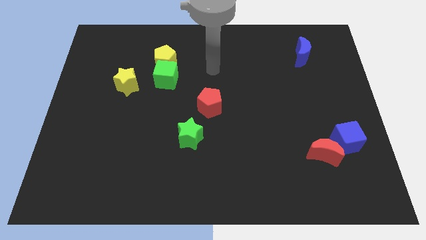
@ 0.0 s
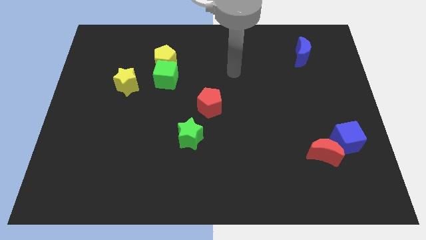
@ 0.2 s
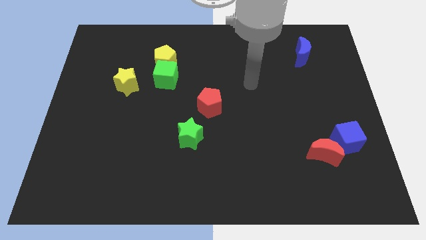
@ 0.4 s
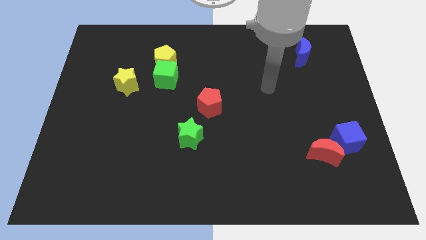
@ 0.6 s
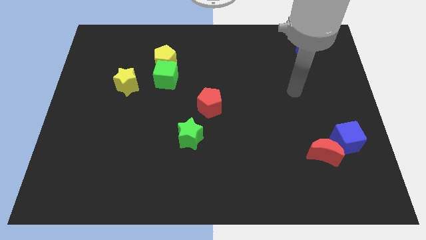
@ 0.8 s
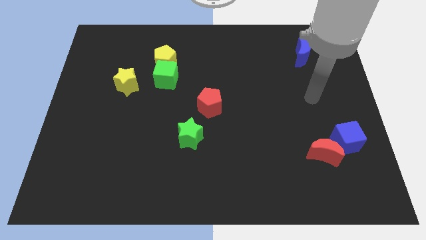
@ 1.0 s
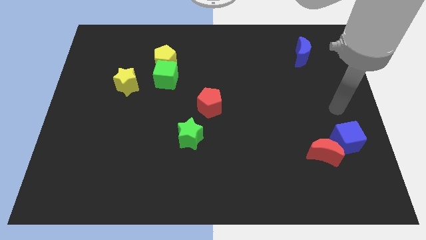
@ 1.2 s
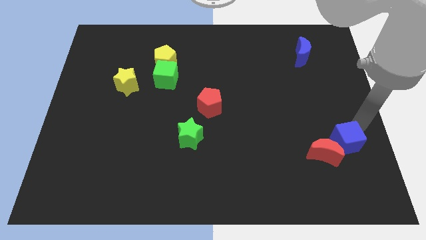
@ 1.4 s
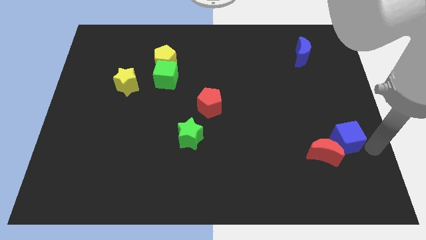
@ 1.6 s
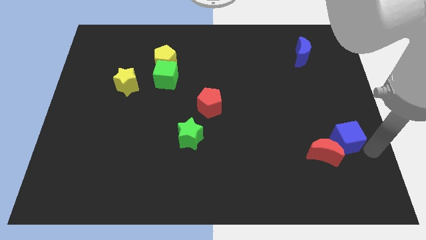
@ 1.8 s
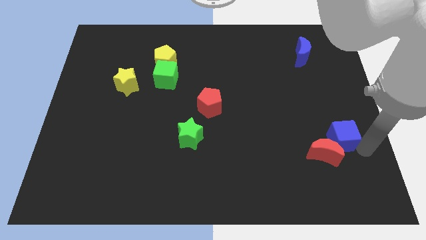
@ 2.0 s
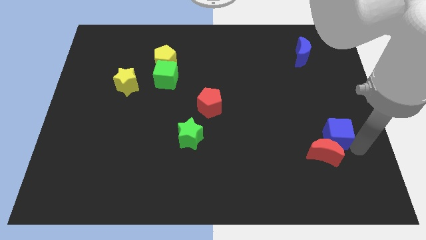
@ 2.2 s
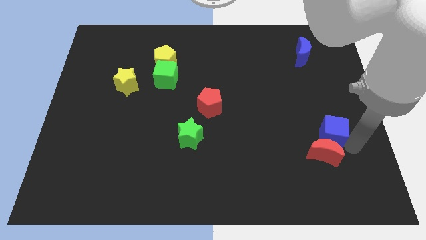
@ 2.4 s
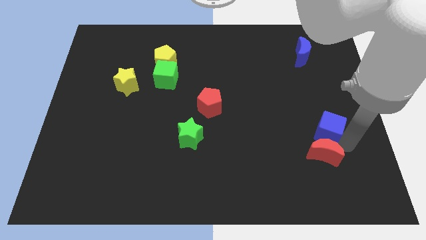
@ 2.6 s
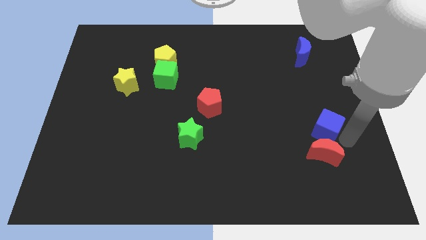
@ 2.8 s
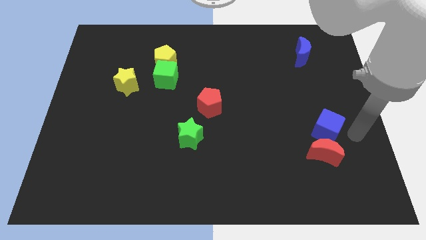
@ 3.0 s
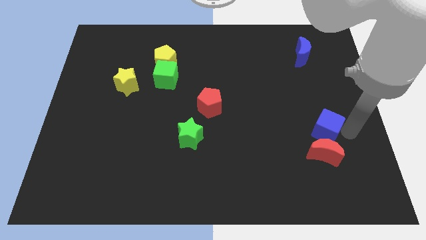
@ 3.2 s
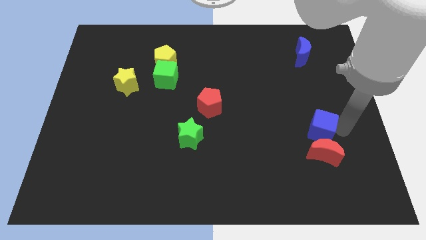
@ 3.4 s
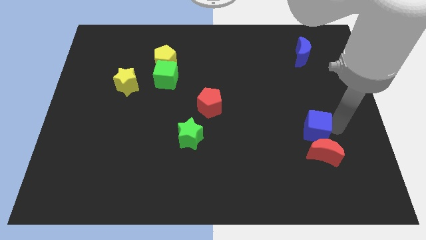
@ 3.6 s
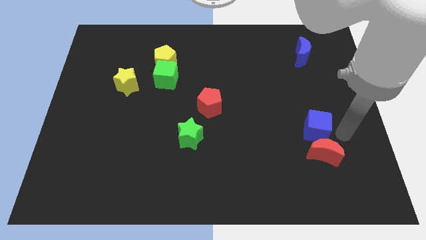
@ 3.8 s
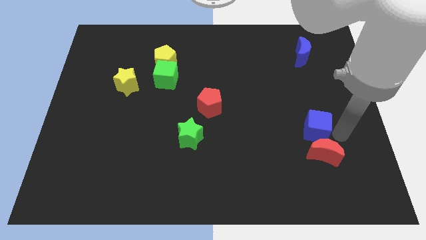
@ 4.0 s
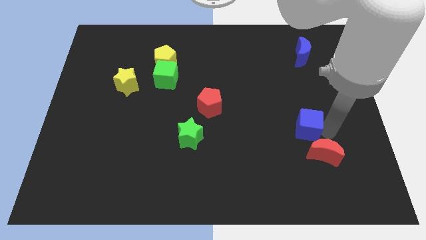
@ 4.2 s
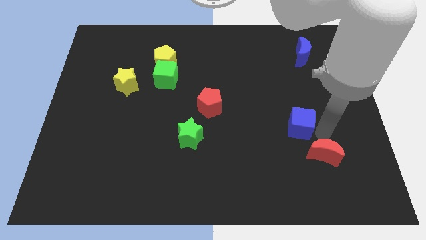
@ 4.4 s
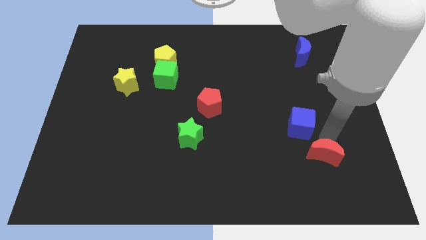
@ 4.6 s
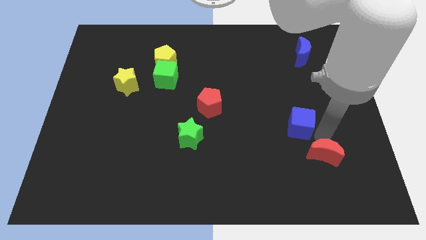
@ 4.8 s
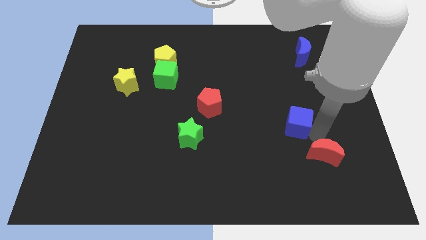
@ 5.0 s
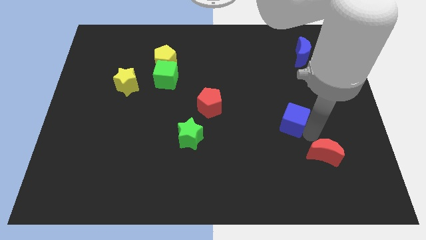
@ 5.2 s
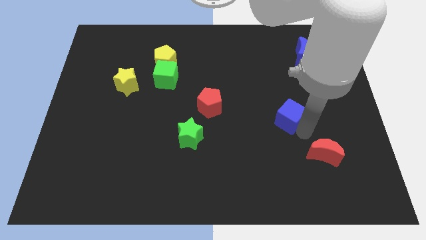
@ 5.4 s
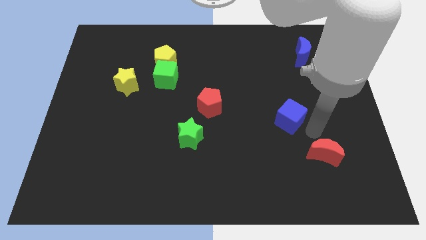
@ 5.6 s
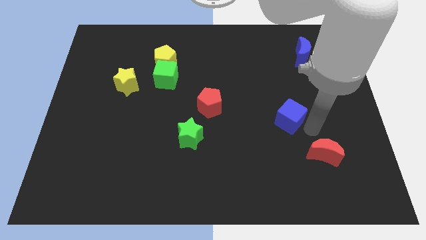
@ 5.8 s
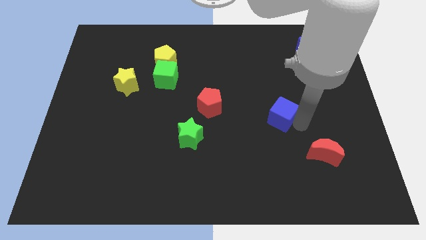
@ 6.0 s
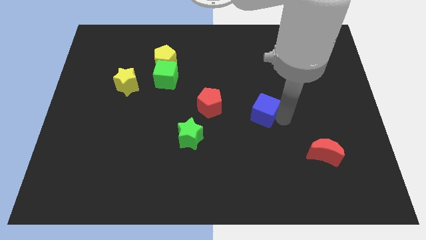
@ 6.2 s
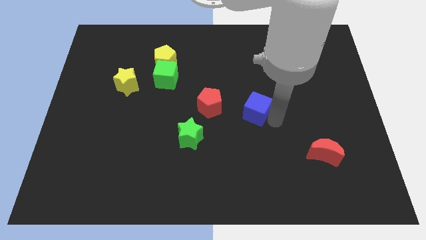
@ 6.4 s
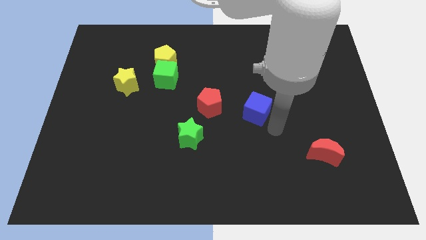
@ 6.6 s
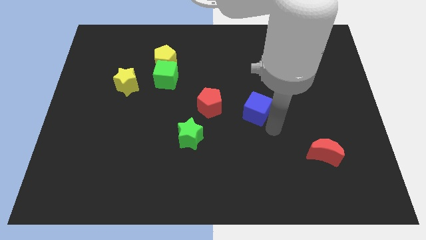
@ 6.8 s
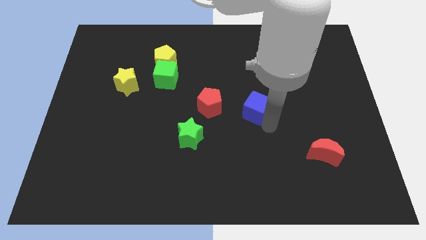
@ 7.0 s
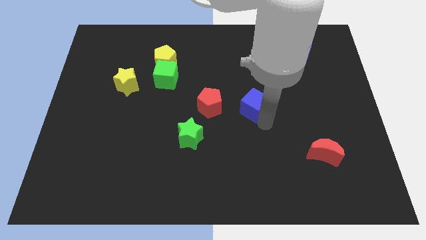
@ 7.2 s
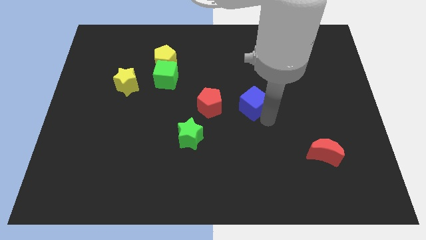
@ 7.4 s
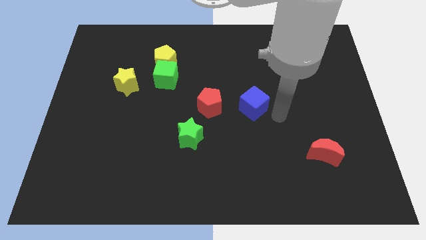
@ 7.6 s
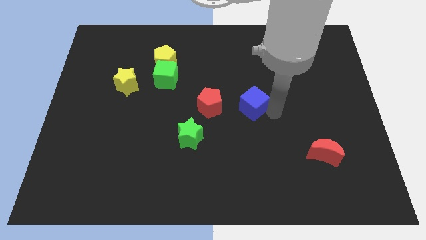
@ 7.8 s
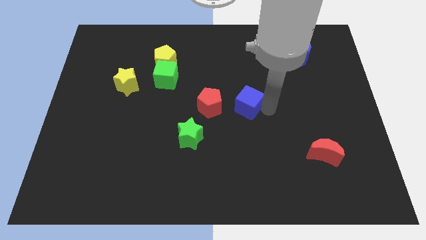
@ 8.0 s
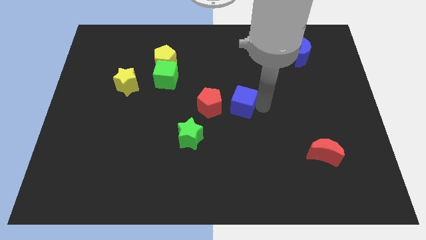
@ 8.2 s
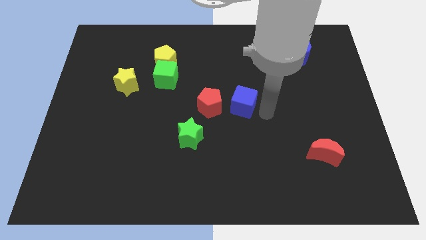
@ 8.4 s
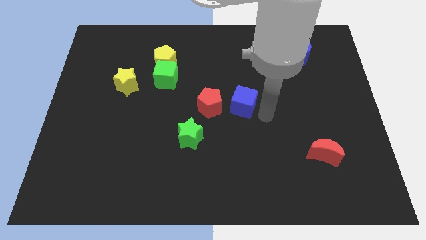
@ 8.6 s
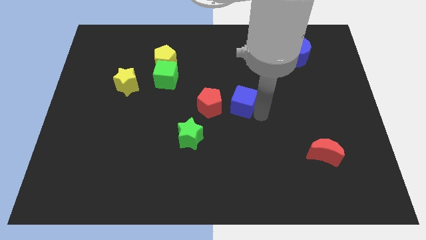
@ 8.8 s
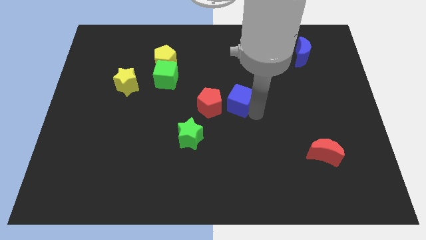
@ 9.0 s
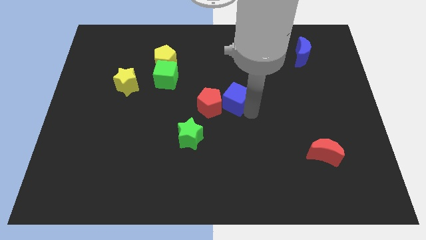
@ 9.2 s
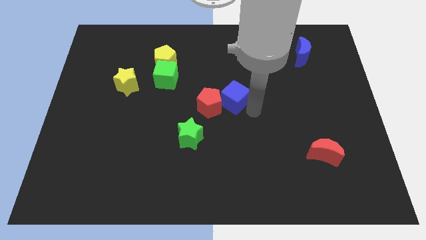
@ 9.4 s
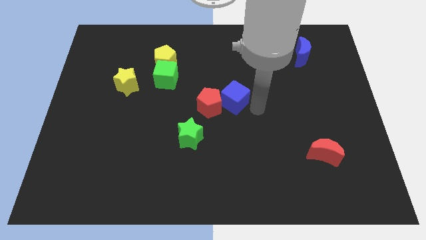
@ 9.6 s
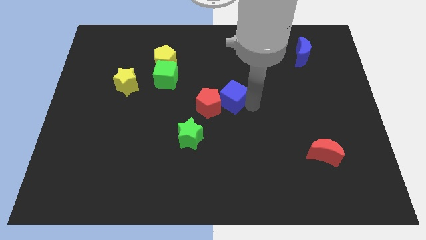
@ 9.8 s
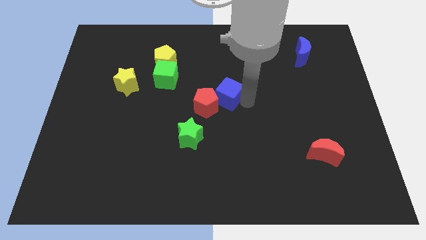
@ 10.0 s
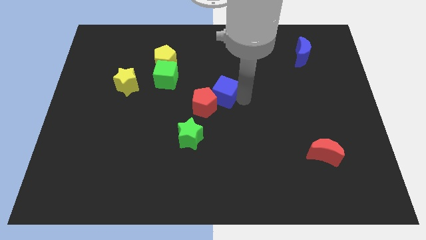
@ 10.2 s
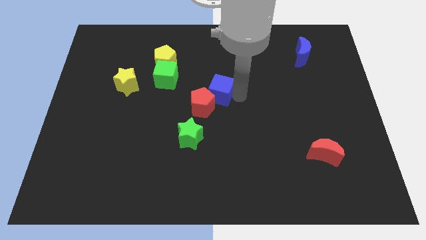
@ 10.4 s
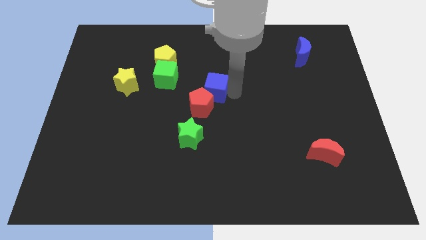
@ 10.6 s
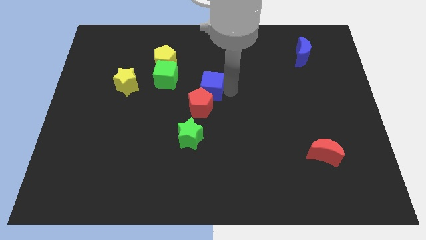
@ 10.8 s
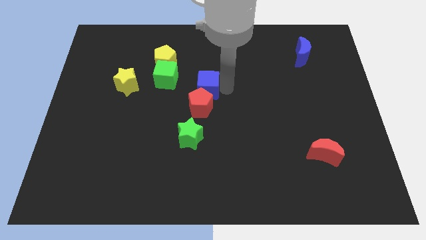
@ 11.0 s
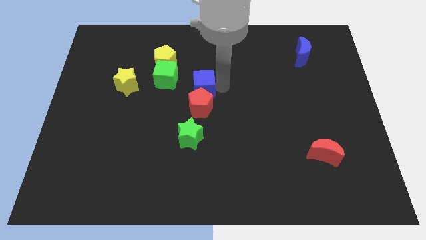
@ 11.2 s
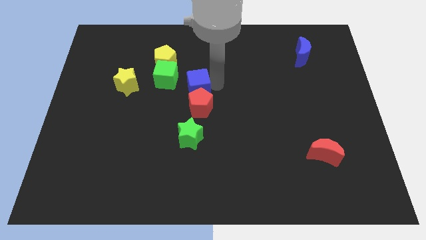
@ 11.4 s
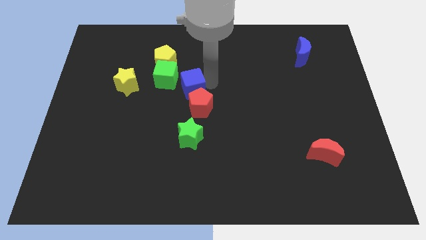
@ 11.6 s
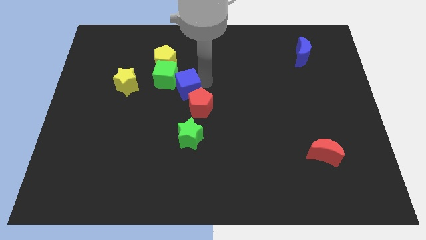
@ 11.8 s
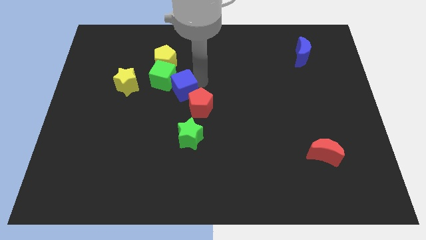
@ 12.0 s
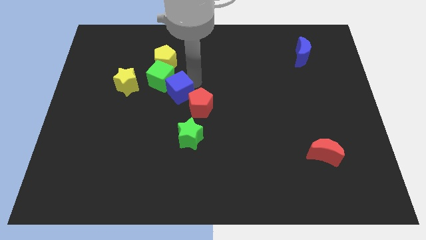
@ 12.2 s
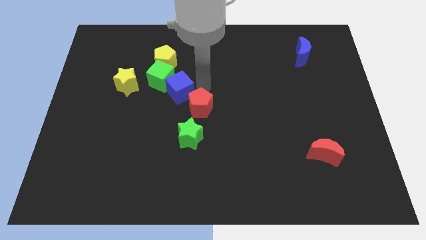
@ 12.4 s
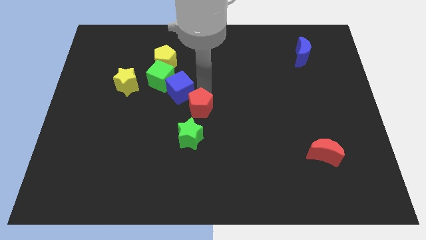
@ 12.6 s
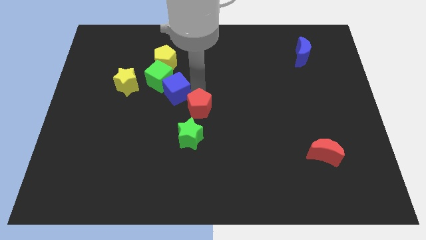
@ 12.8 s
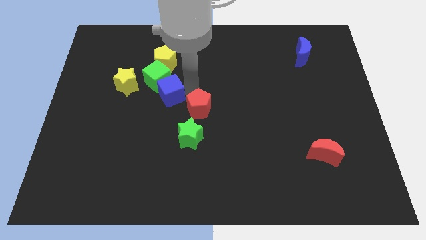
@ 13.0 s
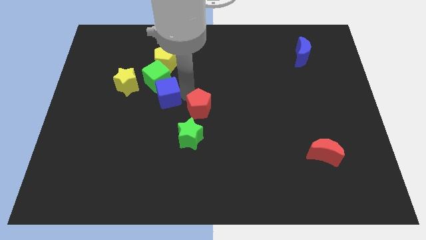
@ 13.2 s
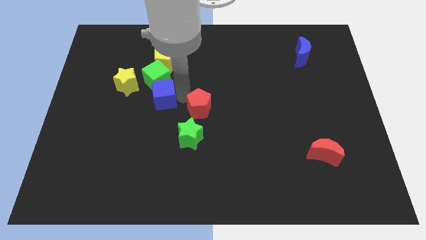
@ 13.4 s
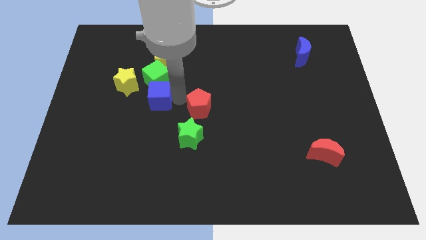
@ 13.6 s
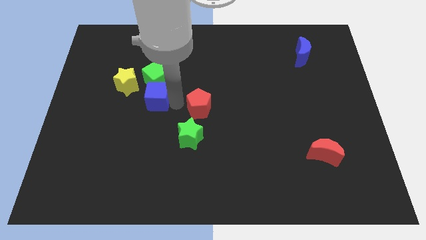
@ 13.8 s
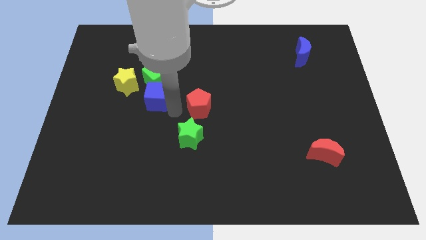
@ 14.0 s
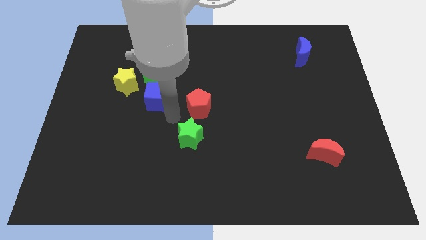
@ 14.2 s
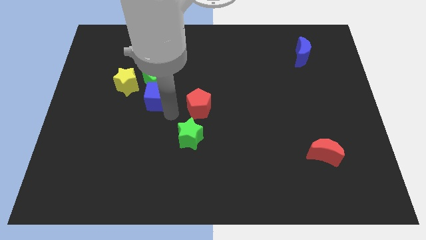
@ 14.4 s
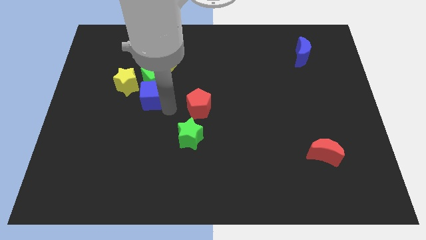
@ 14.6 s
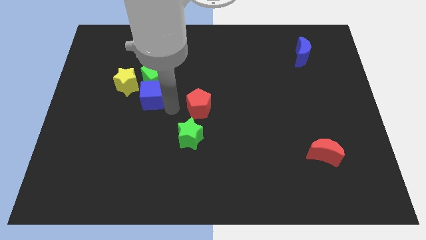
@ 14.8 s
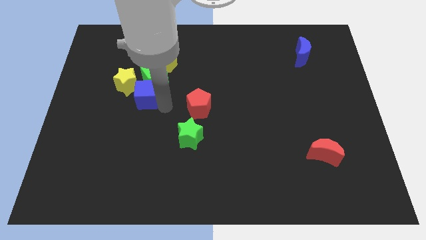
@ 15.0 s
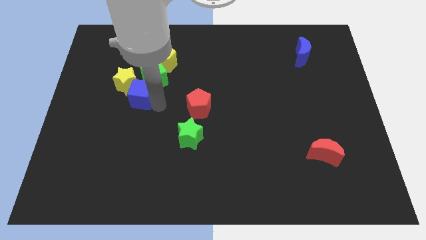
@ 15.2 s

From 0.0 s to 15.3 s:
put the blue cube to the yellow star
